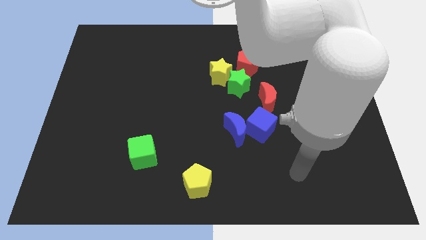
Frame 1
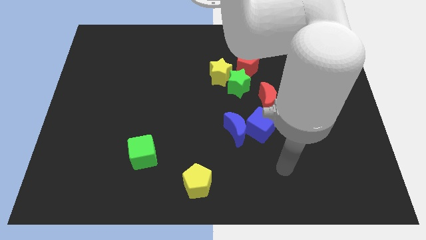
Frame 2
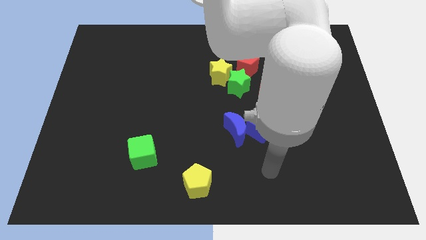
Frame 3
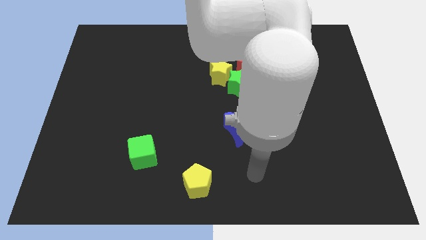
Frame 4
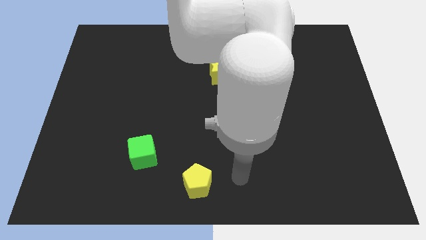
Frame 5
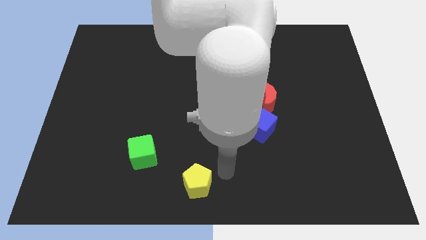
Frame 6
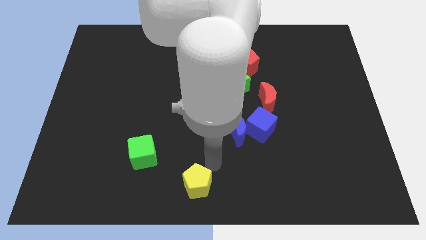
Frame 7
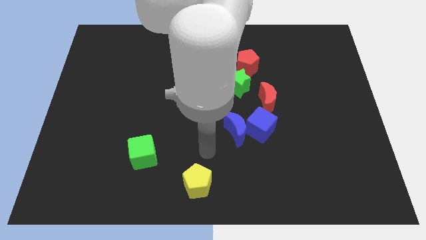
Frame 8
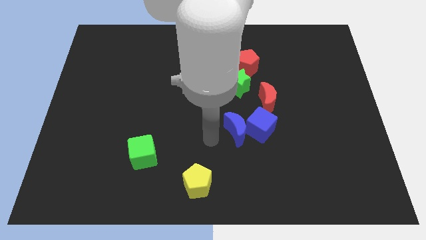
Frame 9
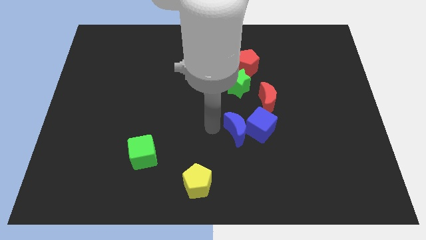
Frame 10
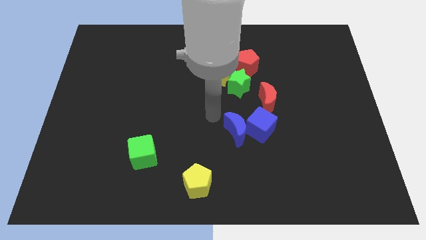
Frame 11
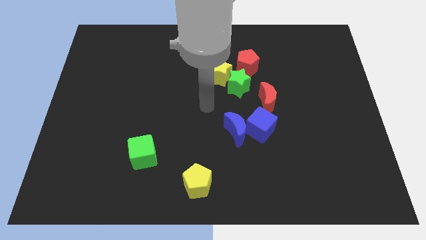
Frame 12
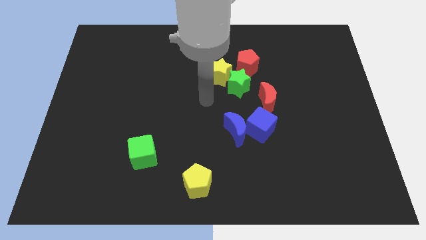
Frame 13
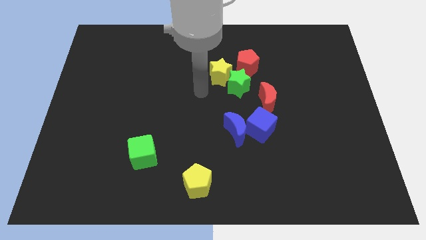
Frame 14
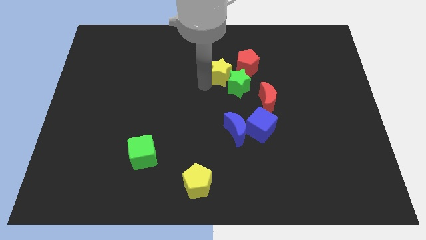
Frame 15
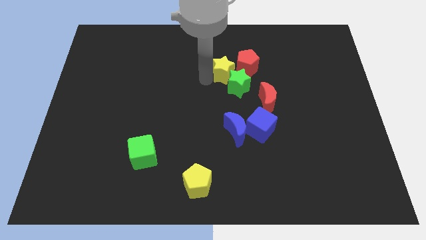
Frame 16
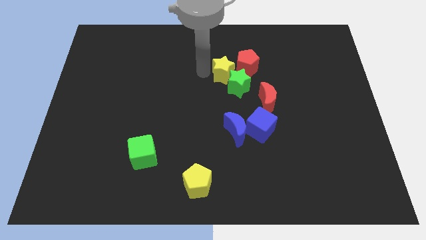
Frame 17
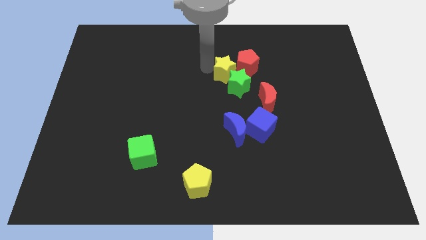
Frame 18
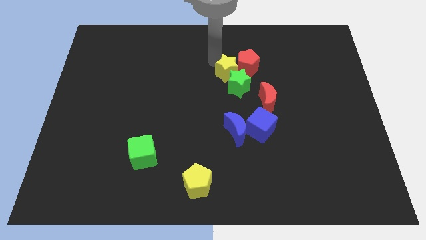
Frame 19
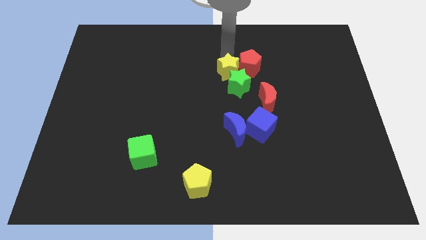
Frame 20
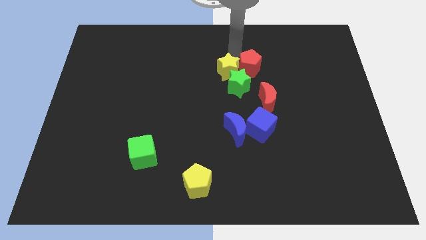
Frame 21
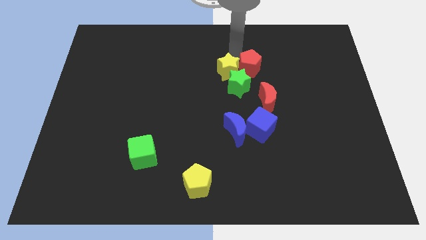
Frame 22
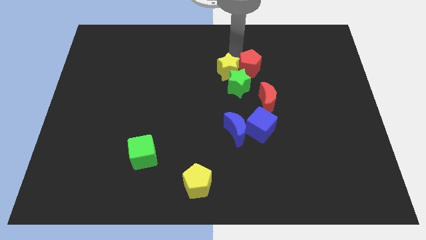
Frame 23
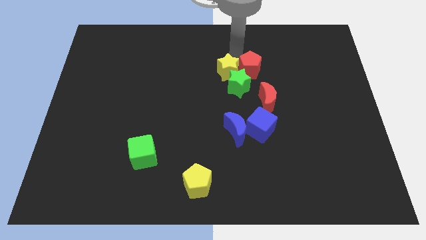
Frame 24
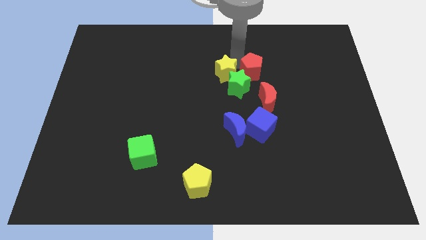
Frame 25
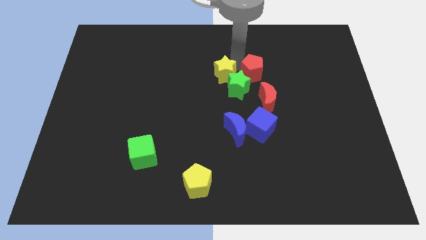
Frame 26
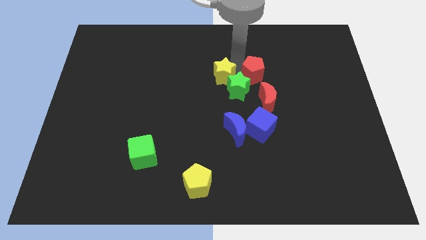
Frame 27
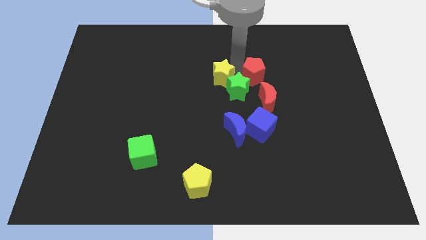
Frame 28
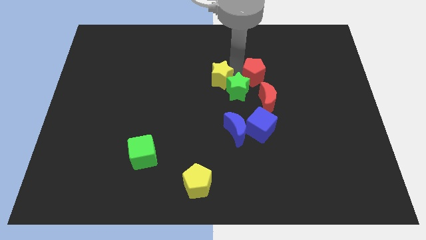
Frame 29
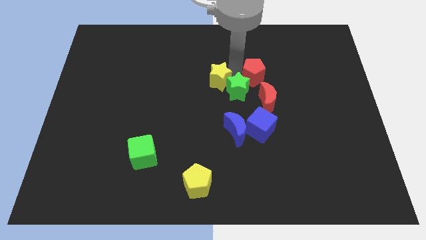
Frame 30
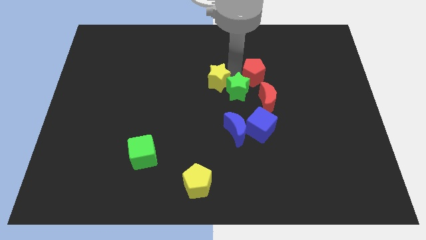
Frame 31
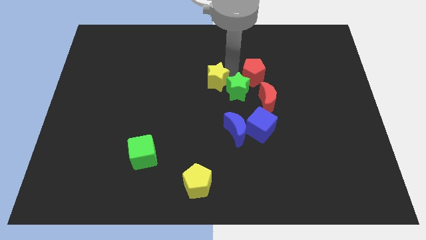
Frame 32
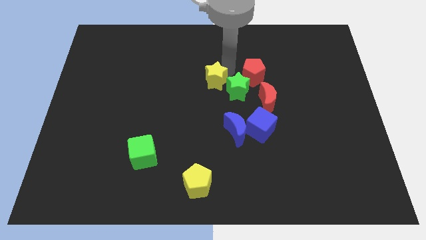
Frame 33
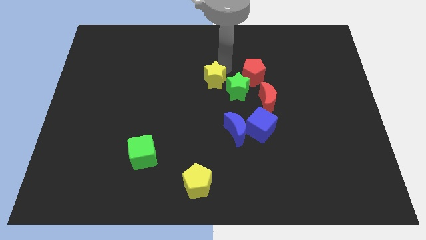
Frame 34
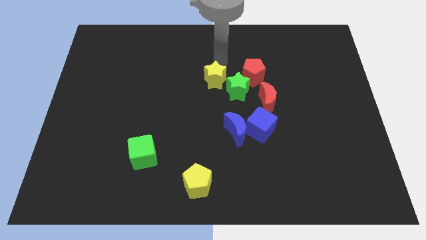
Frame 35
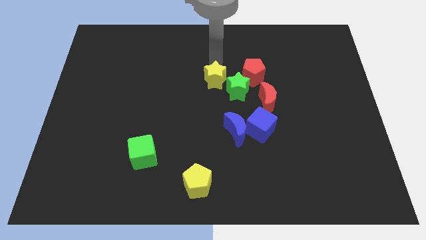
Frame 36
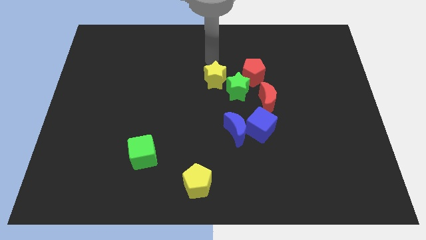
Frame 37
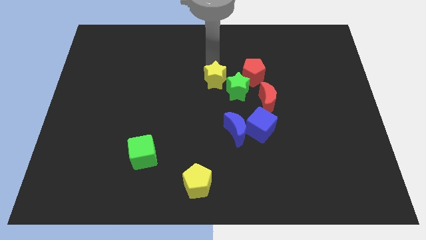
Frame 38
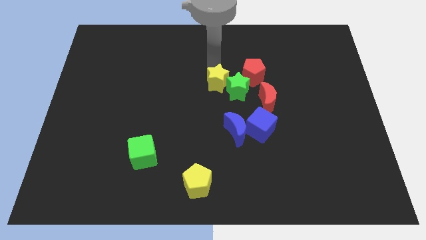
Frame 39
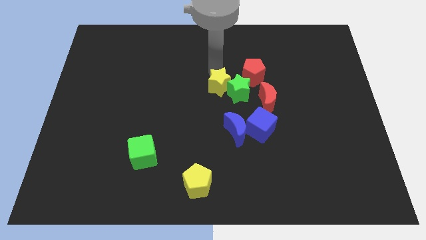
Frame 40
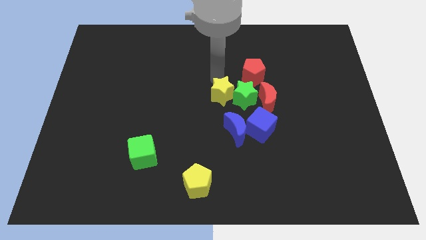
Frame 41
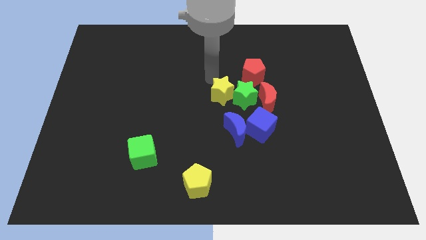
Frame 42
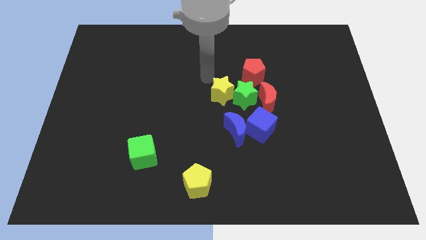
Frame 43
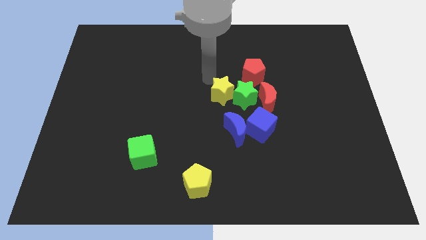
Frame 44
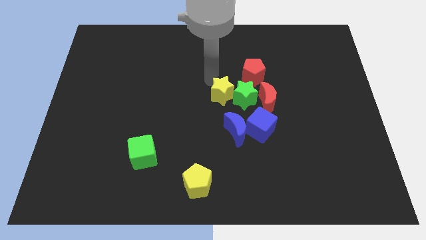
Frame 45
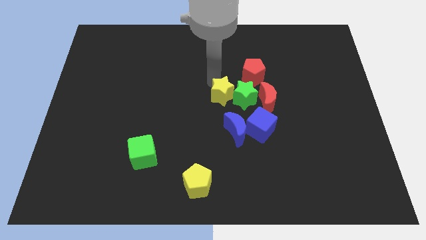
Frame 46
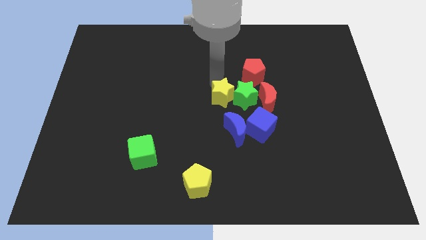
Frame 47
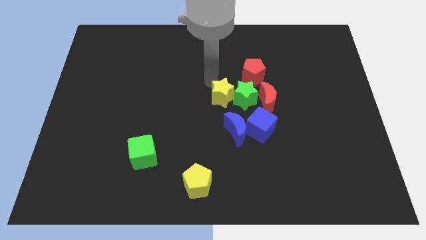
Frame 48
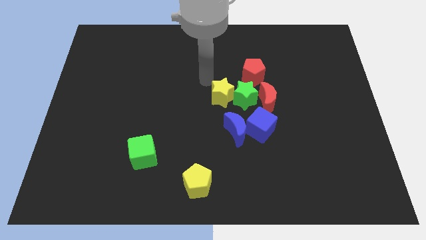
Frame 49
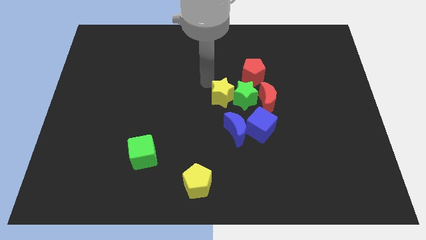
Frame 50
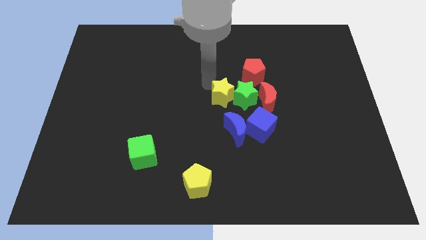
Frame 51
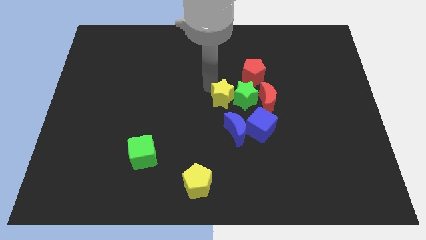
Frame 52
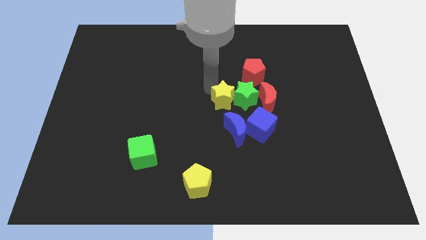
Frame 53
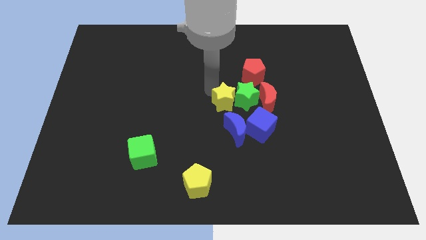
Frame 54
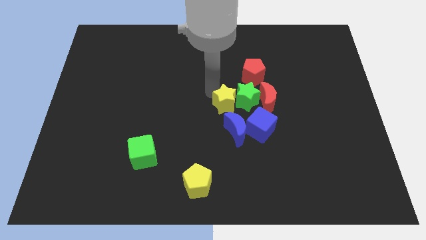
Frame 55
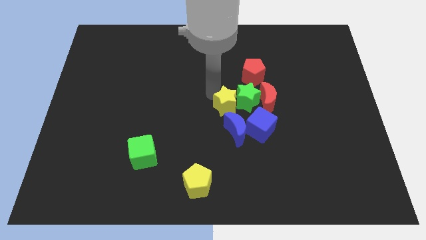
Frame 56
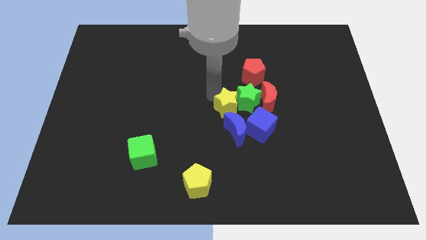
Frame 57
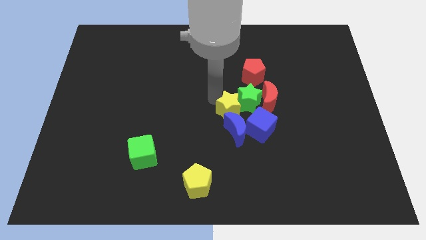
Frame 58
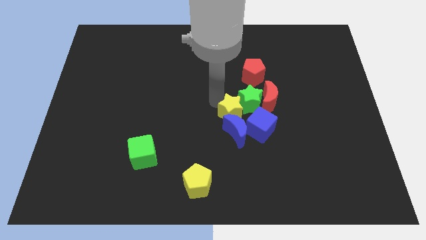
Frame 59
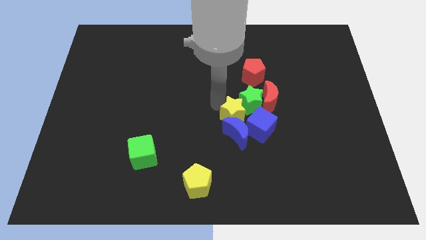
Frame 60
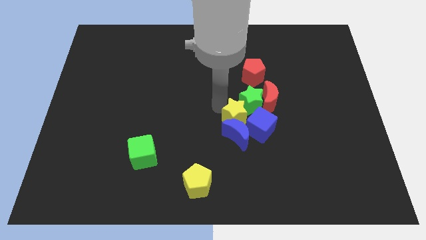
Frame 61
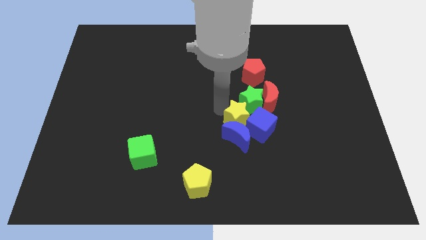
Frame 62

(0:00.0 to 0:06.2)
slide the yellow star towards the blue cube

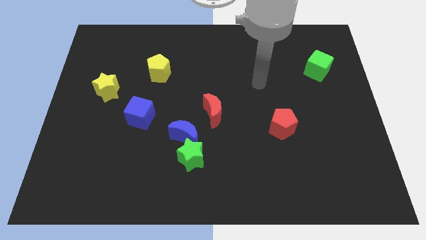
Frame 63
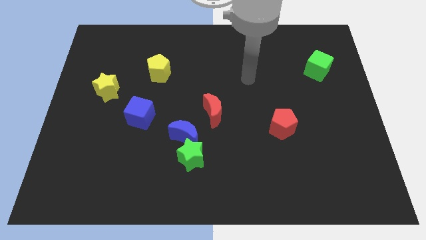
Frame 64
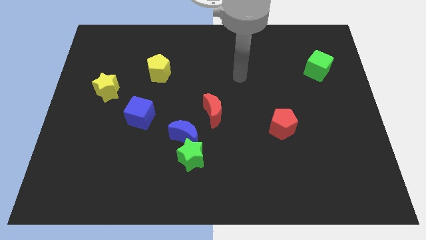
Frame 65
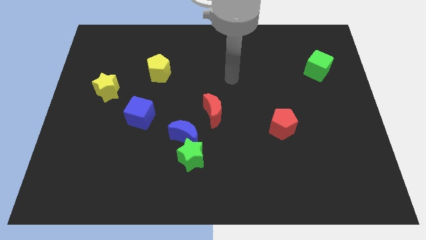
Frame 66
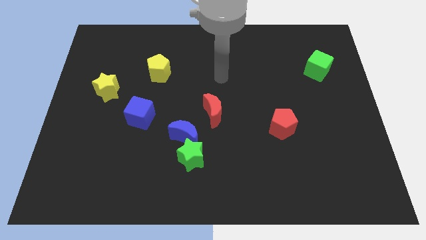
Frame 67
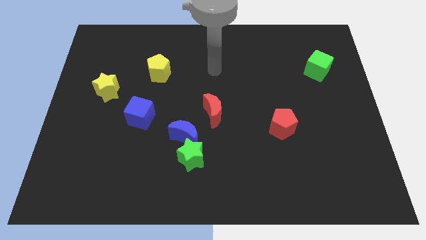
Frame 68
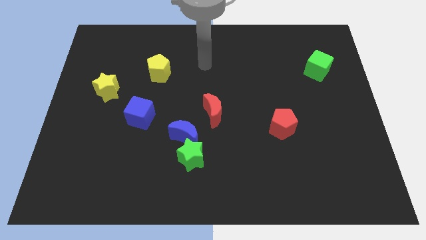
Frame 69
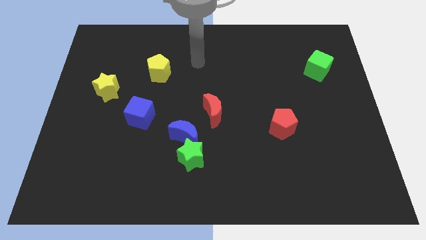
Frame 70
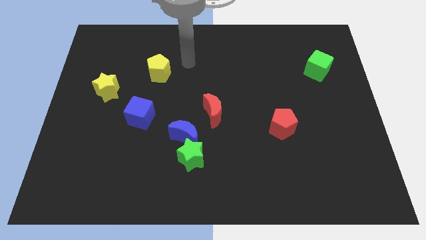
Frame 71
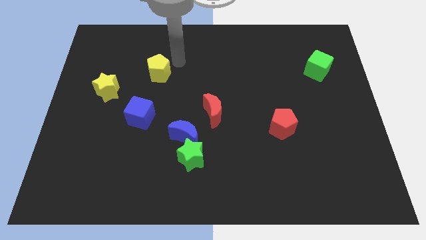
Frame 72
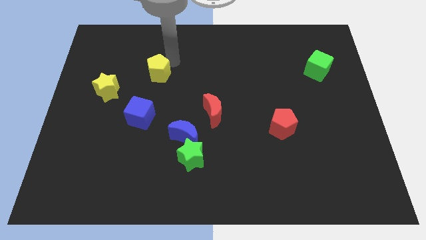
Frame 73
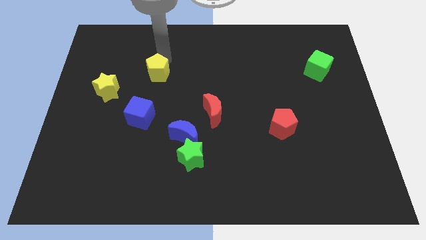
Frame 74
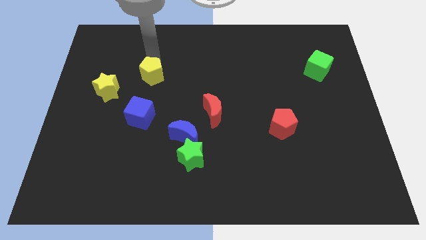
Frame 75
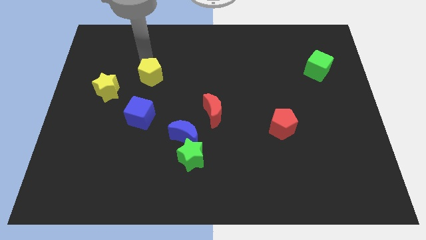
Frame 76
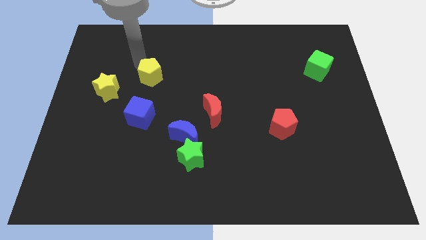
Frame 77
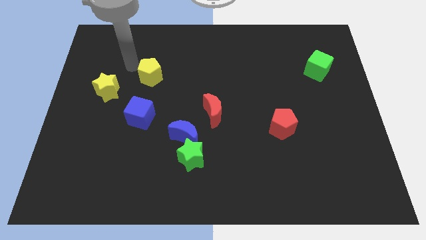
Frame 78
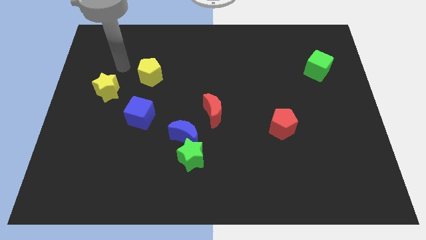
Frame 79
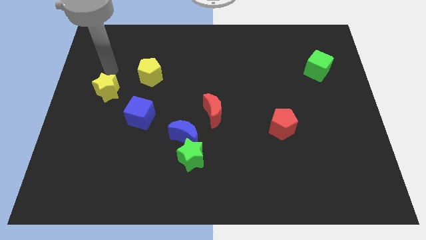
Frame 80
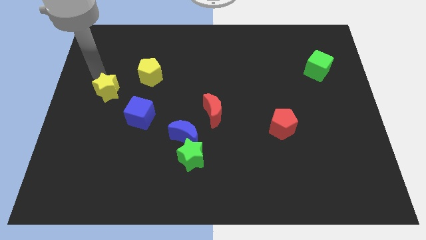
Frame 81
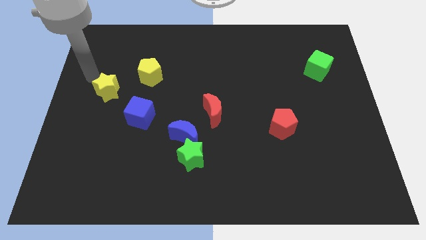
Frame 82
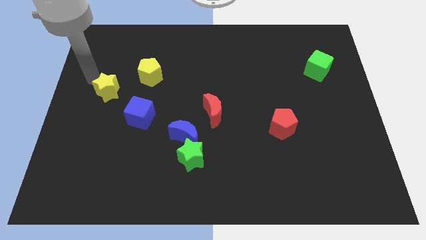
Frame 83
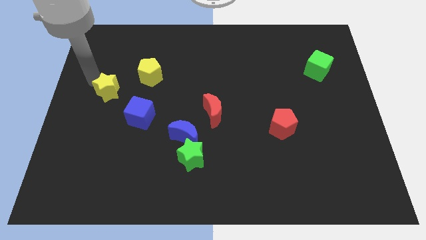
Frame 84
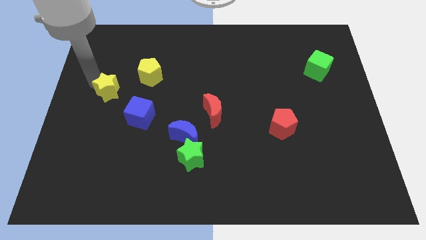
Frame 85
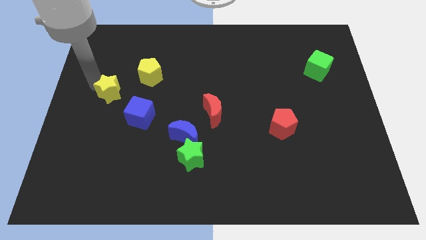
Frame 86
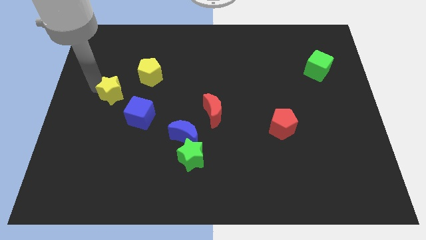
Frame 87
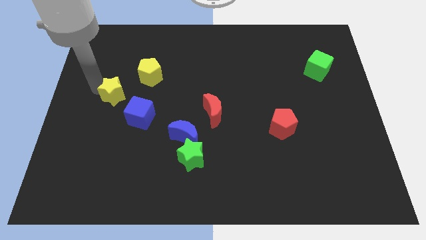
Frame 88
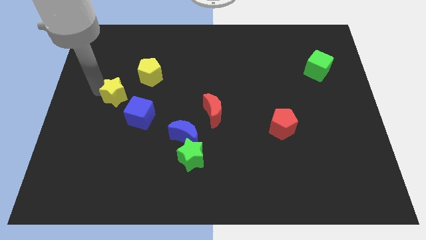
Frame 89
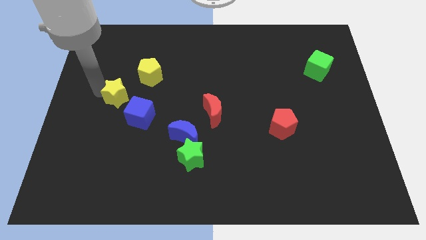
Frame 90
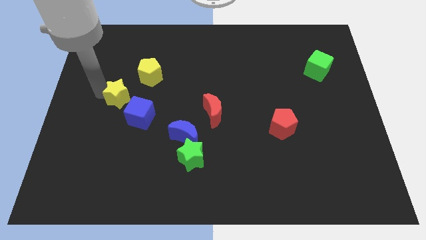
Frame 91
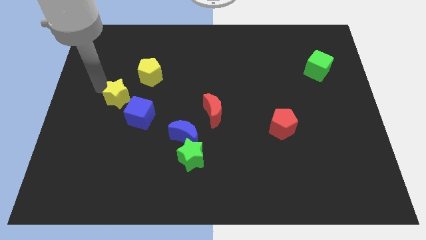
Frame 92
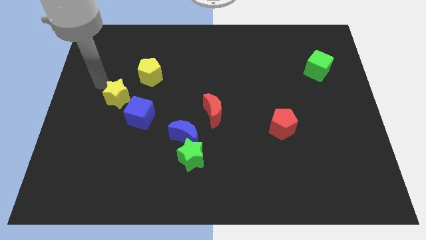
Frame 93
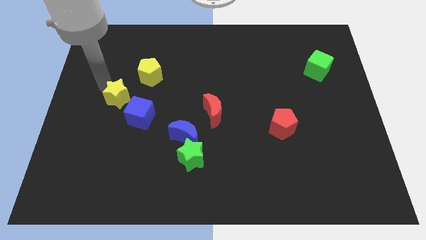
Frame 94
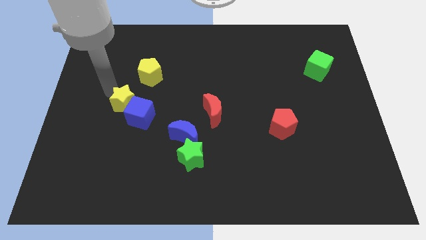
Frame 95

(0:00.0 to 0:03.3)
push the yellow star towards the blue cube
